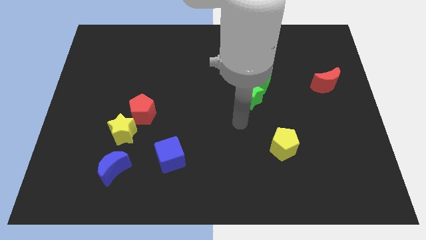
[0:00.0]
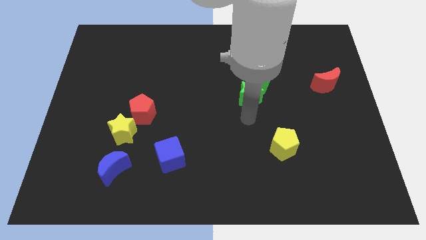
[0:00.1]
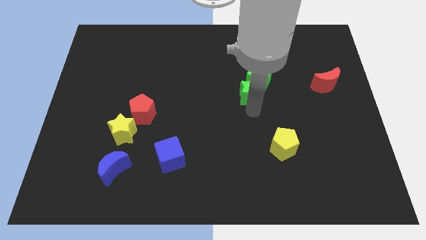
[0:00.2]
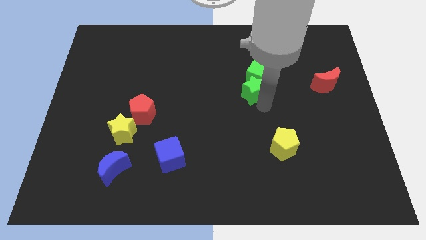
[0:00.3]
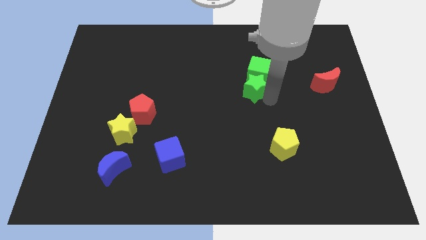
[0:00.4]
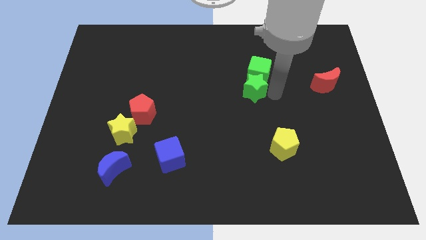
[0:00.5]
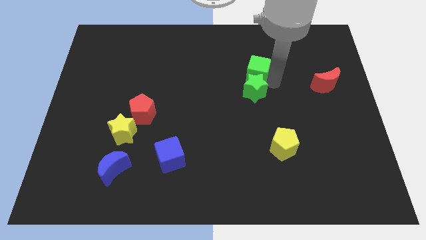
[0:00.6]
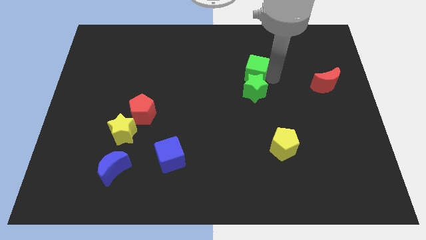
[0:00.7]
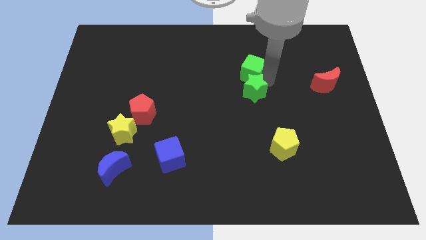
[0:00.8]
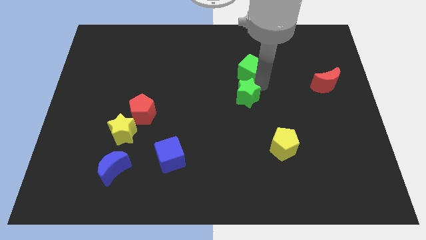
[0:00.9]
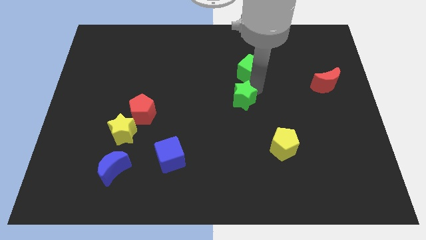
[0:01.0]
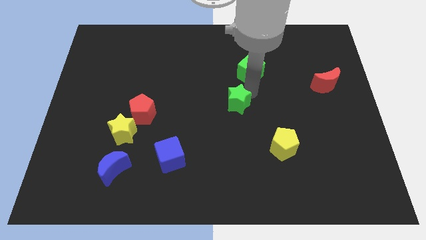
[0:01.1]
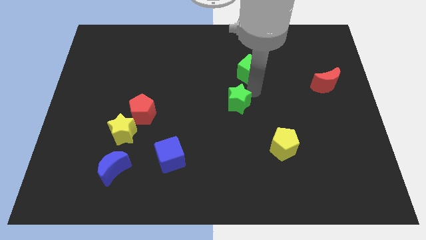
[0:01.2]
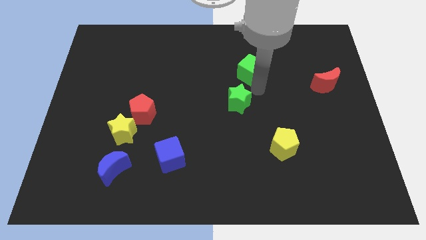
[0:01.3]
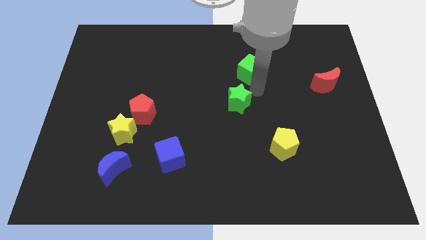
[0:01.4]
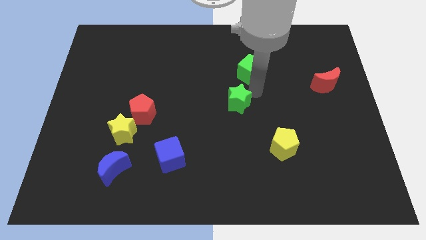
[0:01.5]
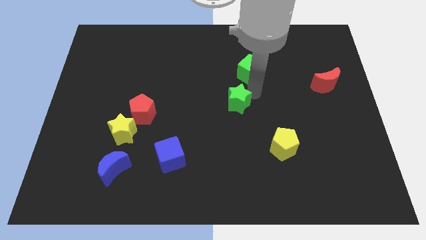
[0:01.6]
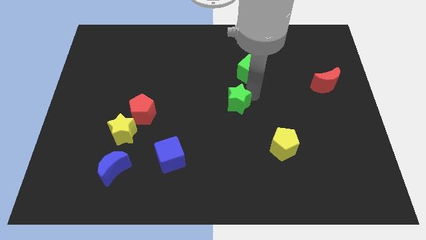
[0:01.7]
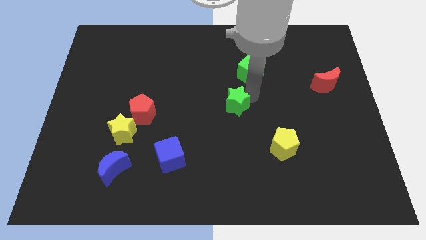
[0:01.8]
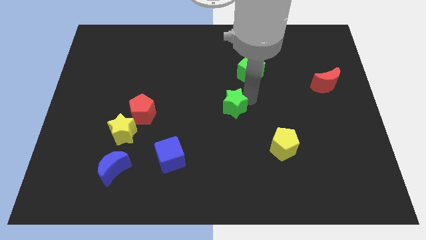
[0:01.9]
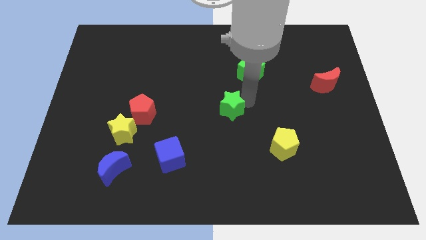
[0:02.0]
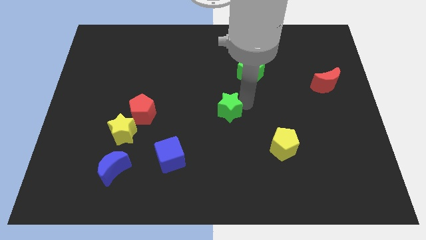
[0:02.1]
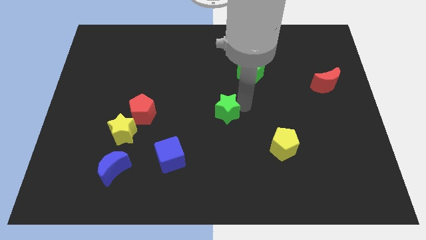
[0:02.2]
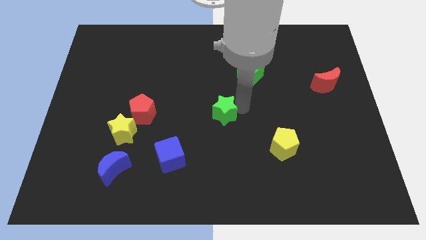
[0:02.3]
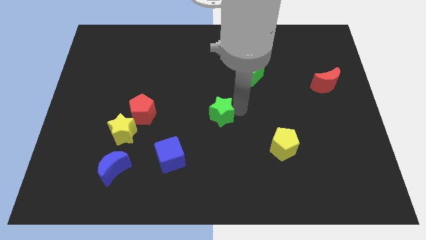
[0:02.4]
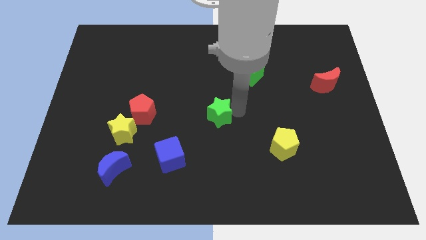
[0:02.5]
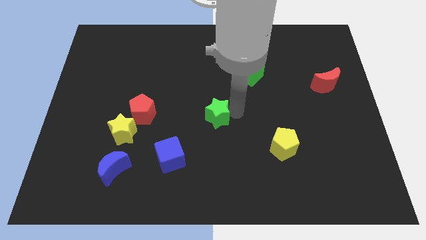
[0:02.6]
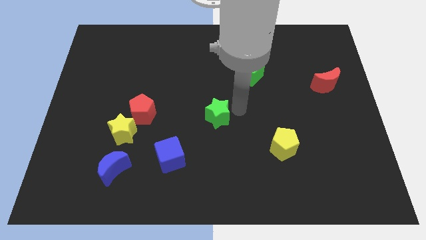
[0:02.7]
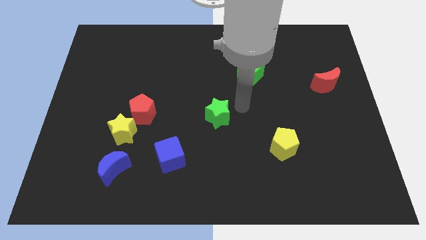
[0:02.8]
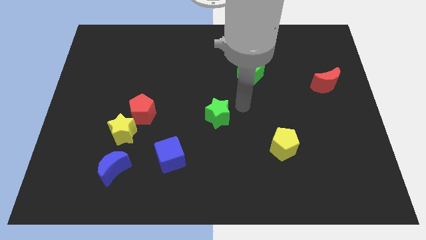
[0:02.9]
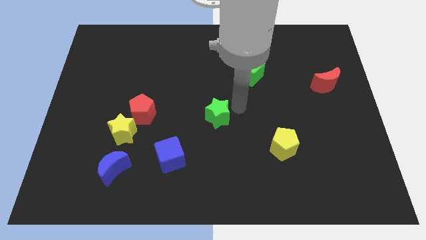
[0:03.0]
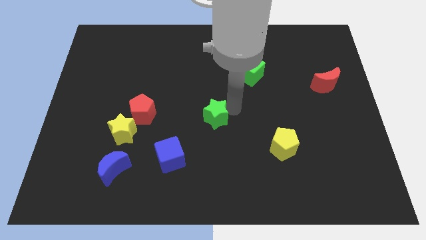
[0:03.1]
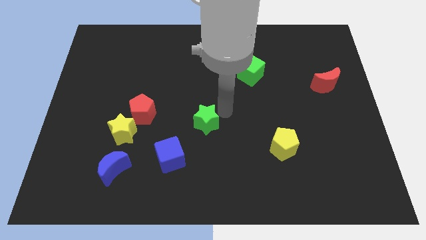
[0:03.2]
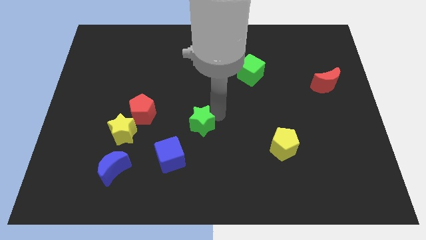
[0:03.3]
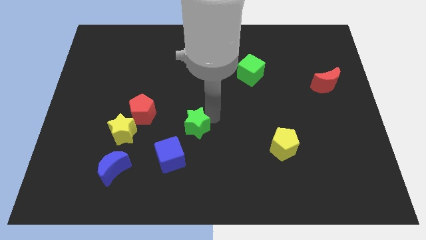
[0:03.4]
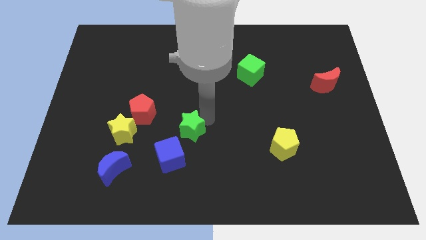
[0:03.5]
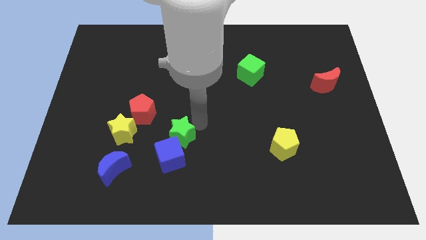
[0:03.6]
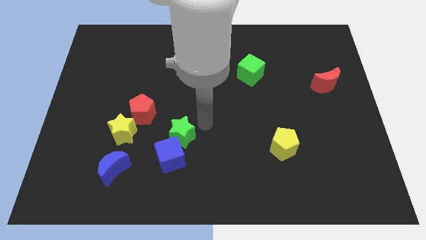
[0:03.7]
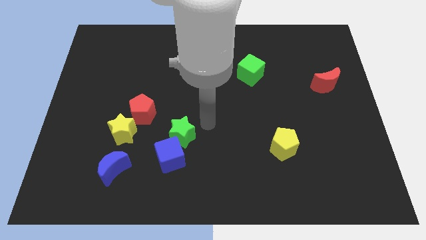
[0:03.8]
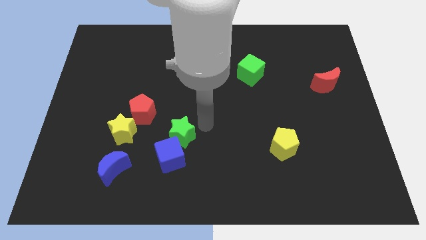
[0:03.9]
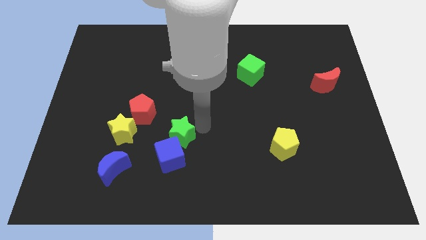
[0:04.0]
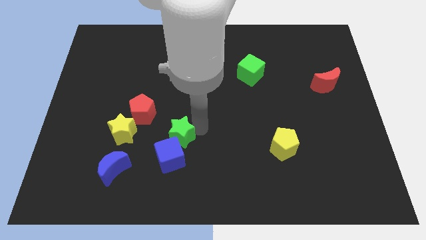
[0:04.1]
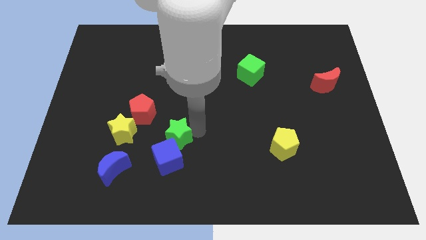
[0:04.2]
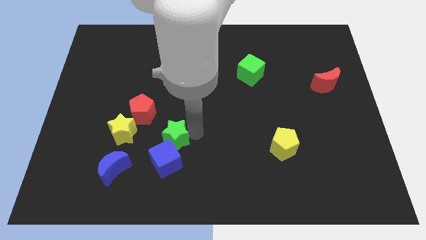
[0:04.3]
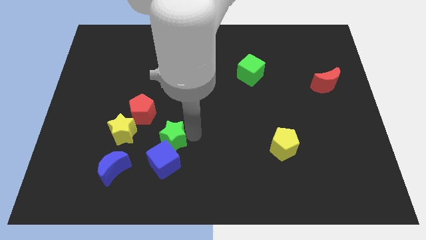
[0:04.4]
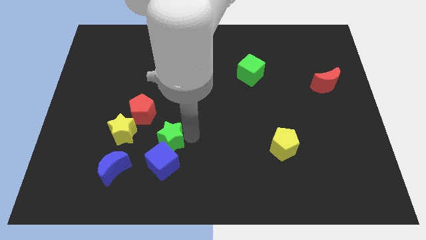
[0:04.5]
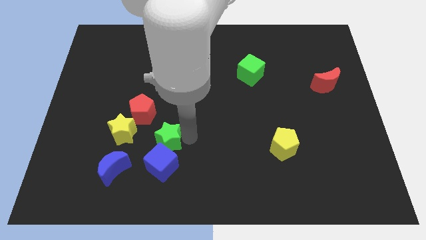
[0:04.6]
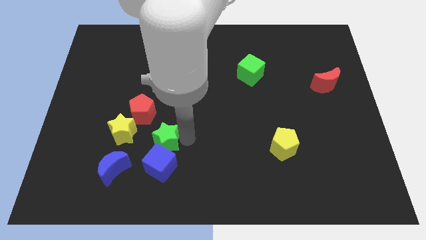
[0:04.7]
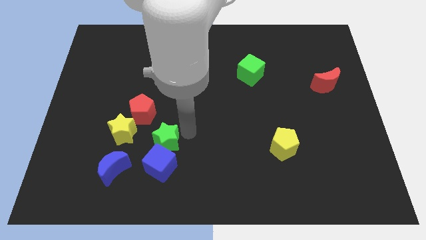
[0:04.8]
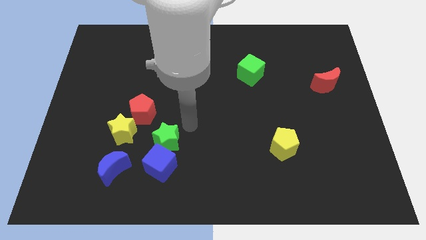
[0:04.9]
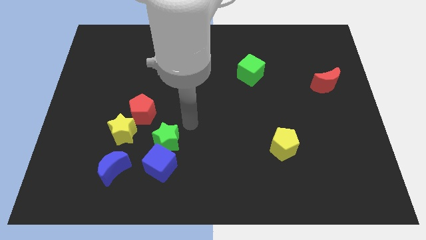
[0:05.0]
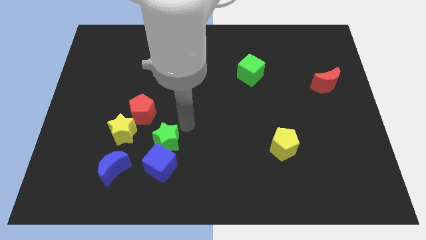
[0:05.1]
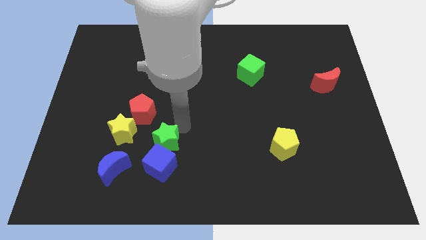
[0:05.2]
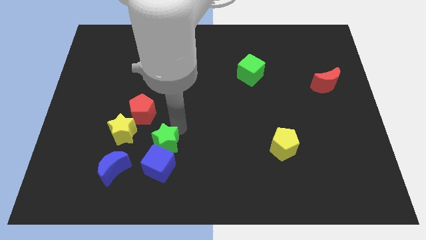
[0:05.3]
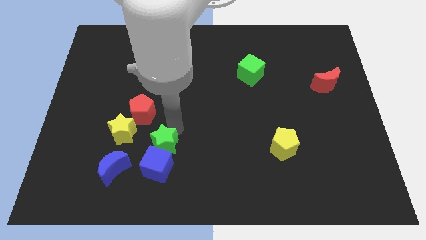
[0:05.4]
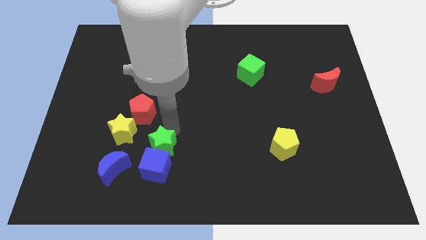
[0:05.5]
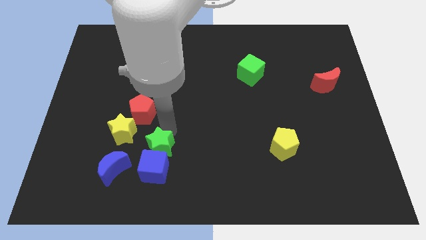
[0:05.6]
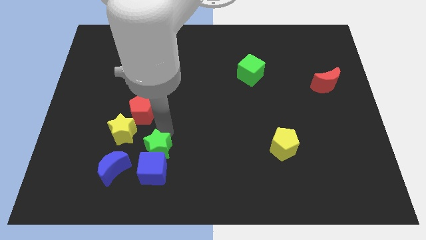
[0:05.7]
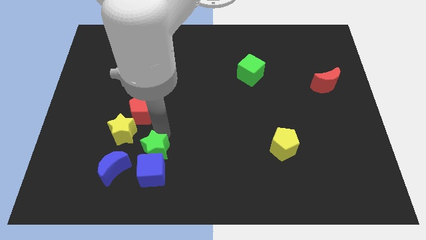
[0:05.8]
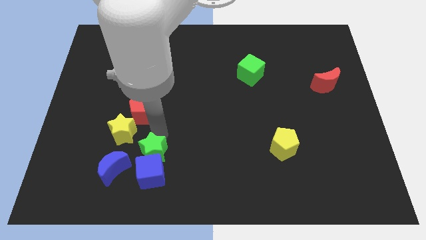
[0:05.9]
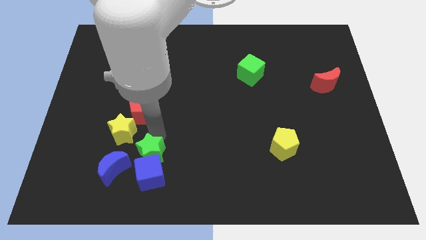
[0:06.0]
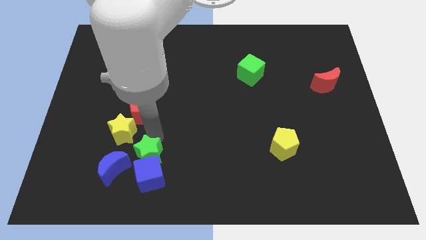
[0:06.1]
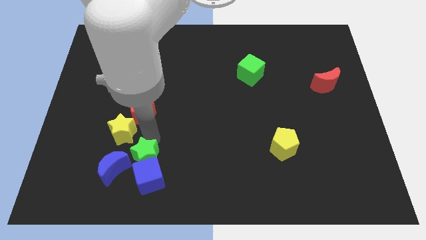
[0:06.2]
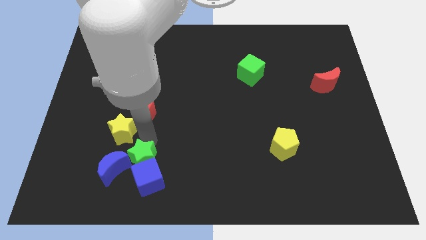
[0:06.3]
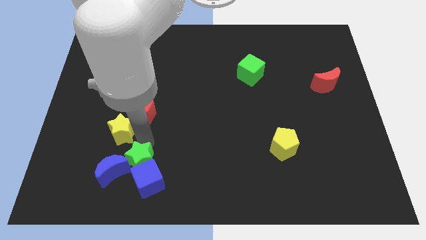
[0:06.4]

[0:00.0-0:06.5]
move the green star to the blue moon

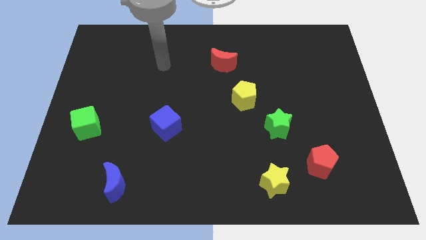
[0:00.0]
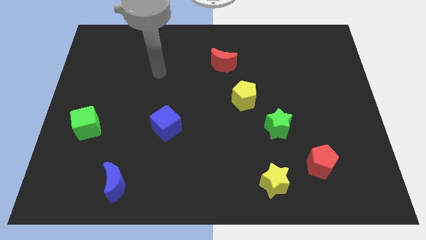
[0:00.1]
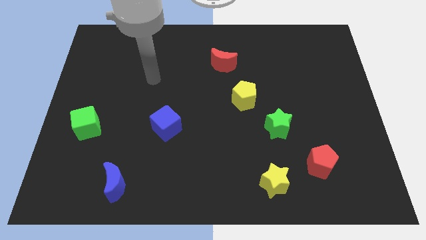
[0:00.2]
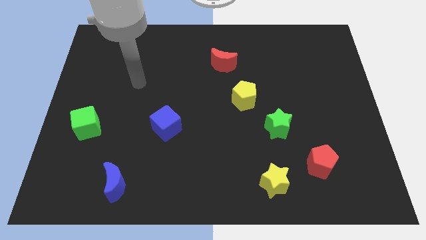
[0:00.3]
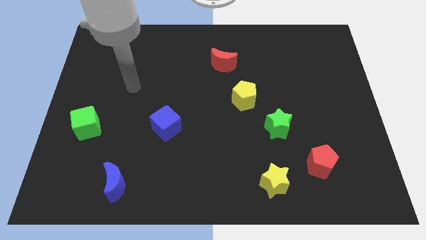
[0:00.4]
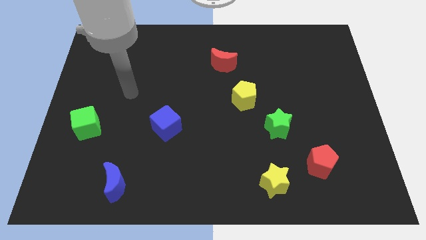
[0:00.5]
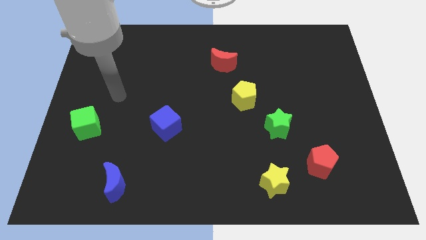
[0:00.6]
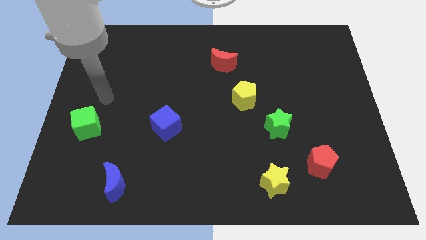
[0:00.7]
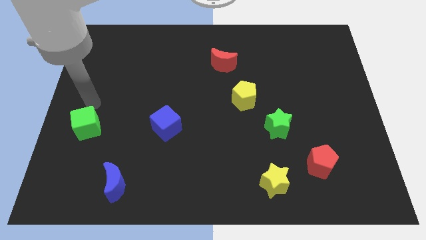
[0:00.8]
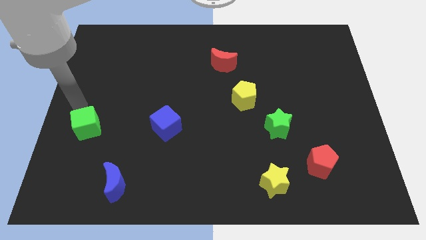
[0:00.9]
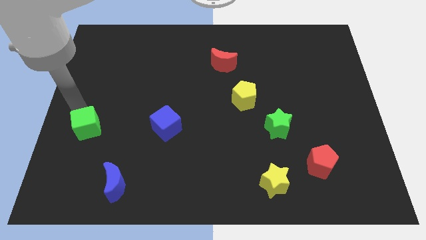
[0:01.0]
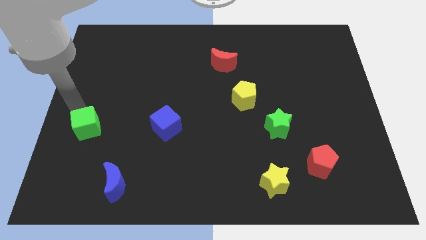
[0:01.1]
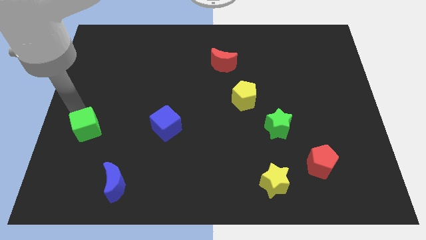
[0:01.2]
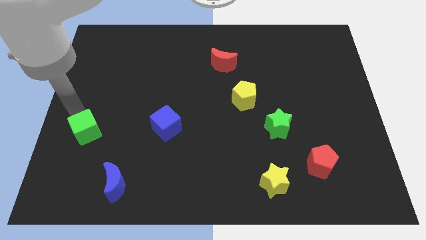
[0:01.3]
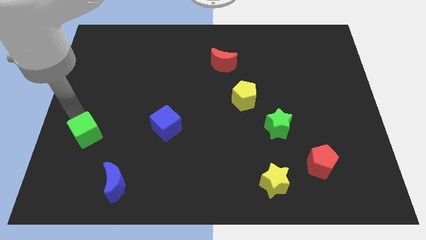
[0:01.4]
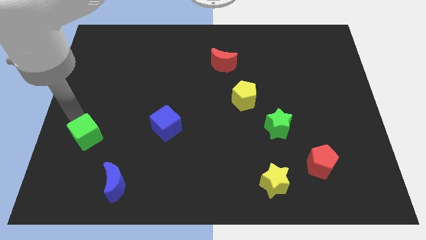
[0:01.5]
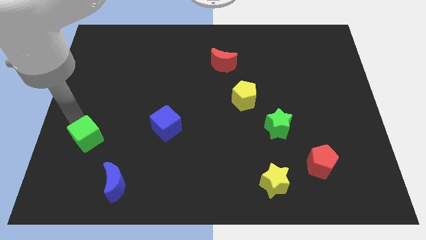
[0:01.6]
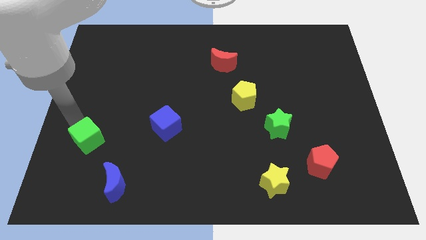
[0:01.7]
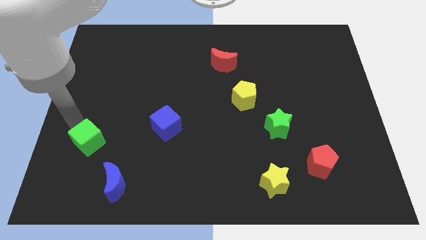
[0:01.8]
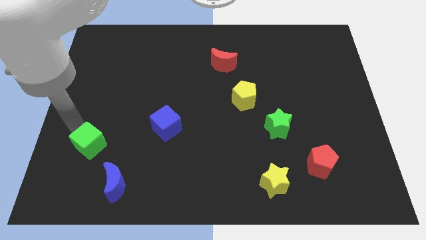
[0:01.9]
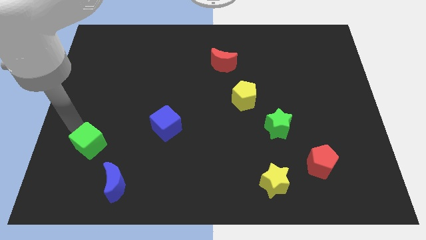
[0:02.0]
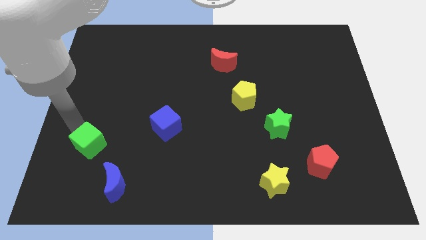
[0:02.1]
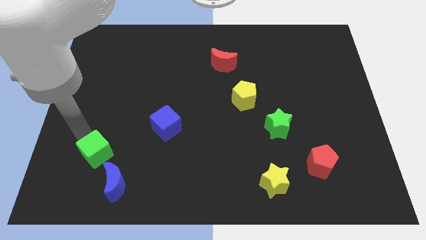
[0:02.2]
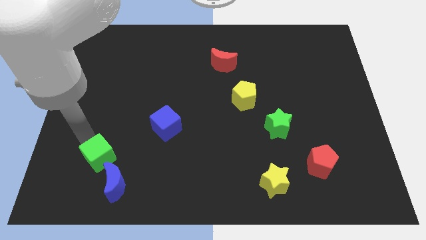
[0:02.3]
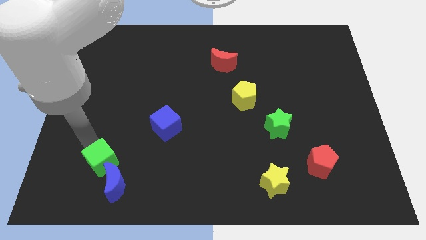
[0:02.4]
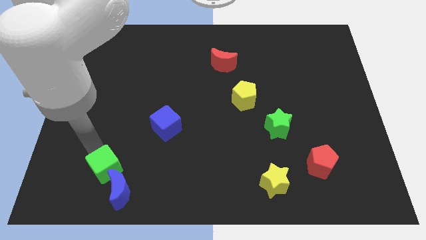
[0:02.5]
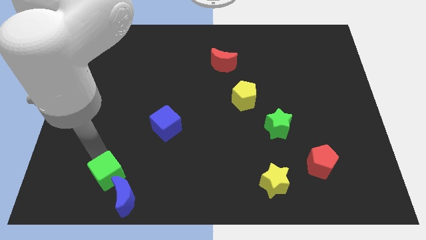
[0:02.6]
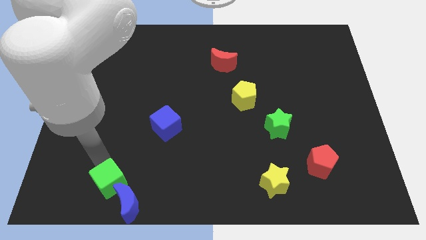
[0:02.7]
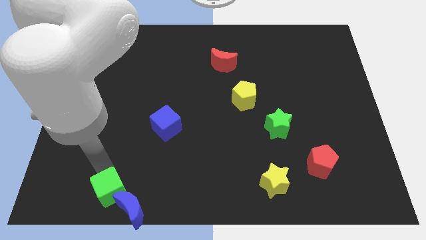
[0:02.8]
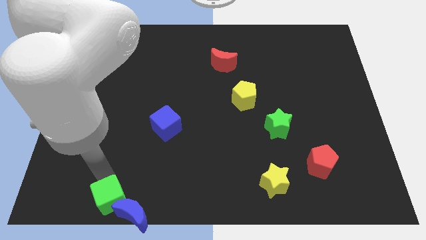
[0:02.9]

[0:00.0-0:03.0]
push the green cube close to the blue moon
